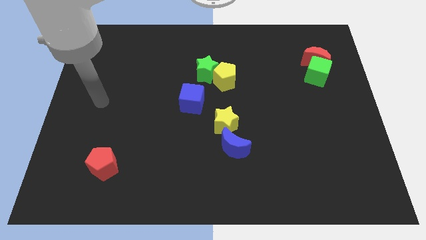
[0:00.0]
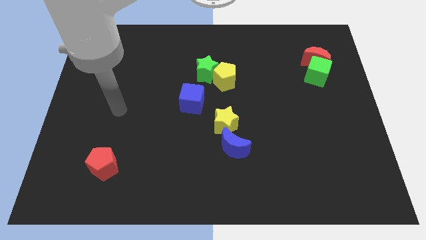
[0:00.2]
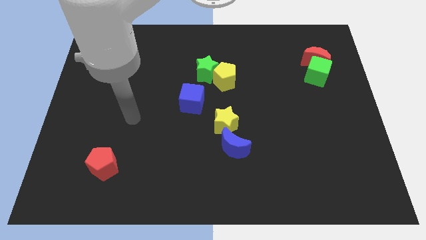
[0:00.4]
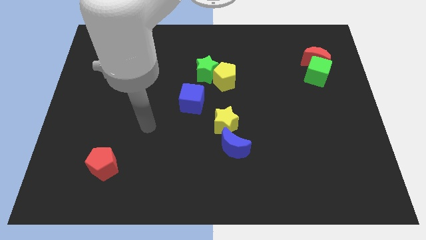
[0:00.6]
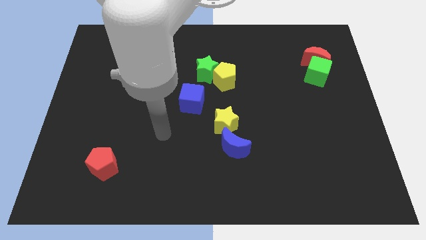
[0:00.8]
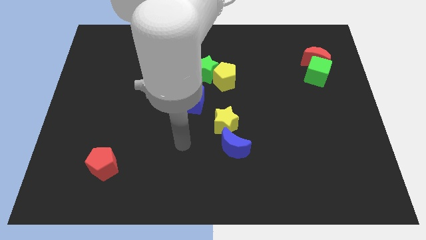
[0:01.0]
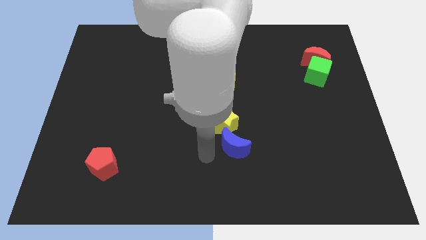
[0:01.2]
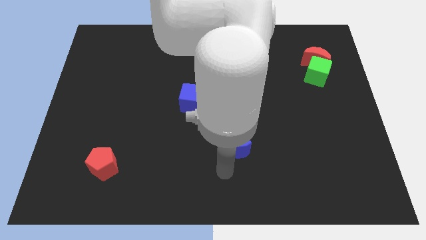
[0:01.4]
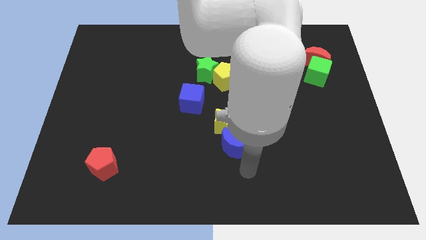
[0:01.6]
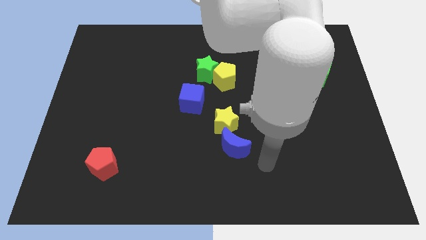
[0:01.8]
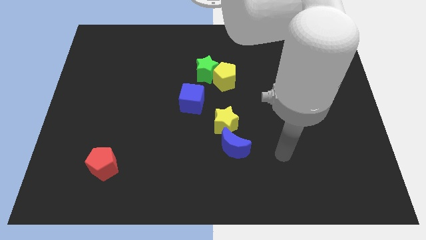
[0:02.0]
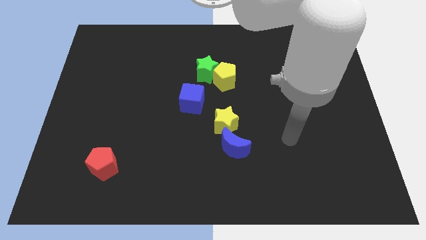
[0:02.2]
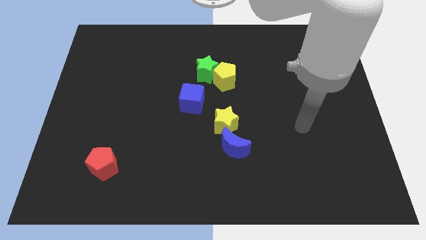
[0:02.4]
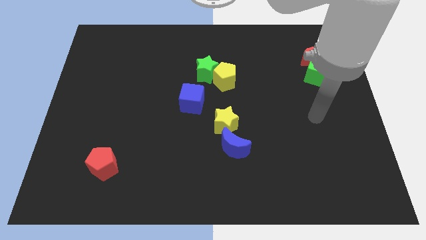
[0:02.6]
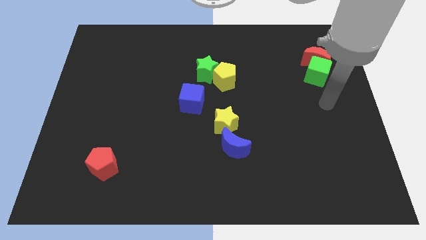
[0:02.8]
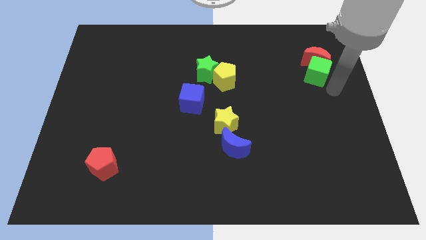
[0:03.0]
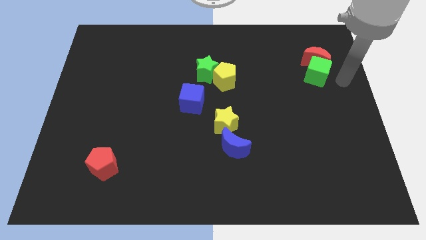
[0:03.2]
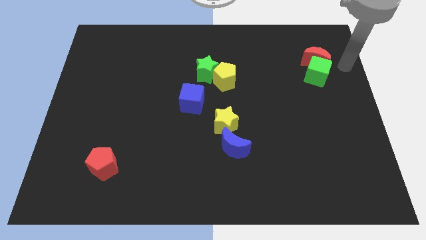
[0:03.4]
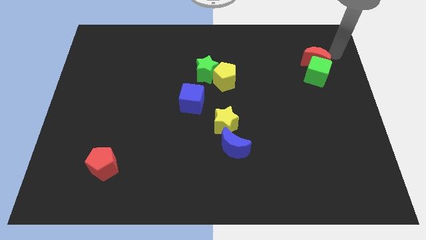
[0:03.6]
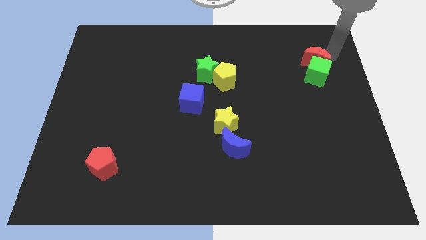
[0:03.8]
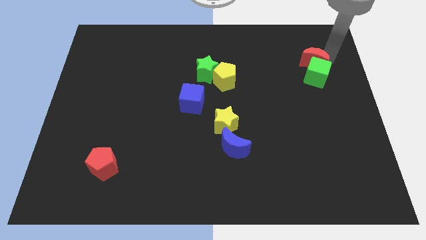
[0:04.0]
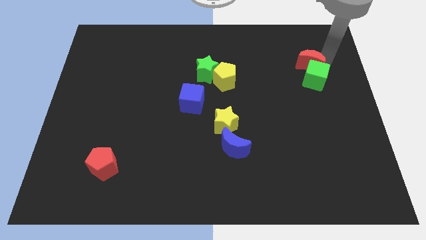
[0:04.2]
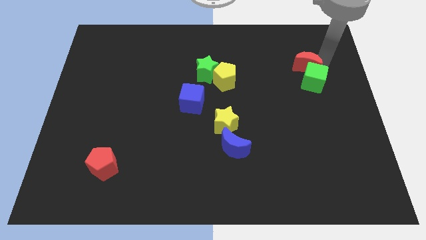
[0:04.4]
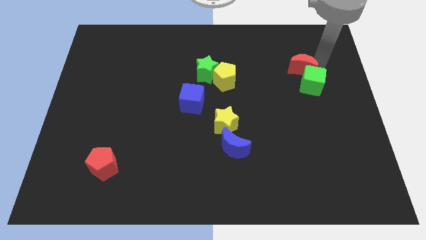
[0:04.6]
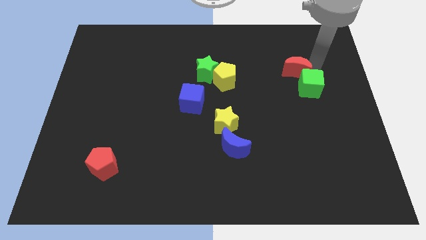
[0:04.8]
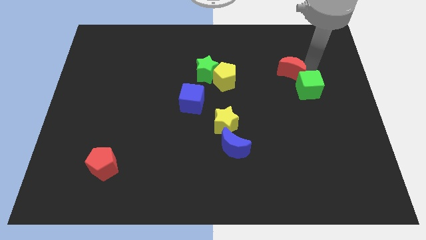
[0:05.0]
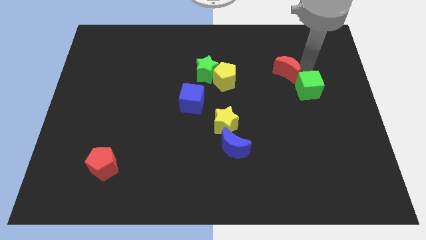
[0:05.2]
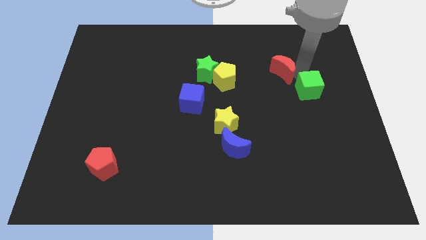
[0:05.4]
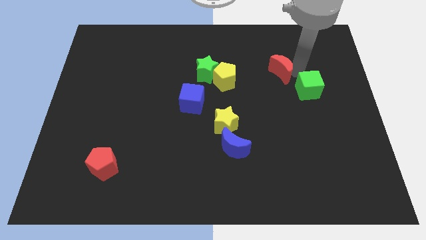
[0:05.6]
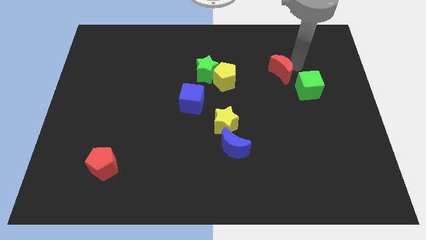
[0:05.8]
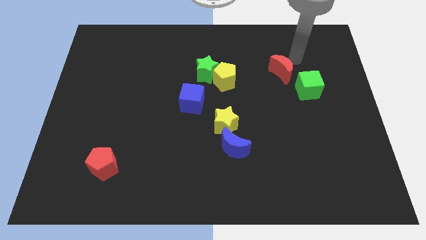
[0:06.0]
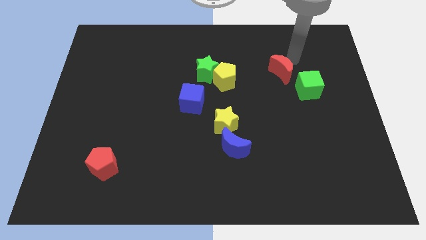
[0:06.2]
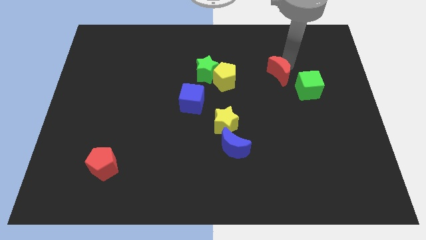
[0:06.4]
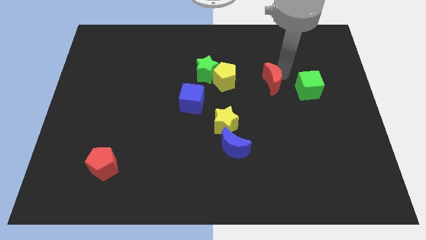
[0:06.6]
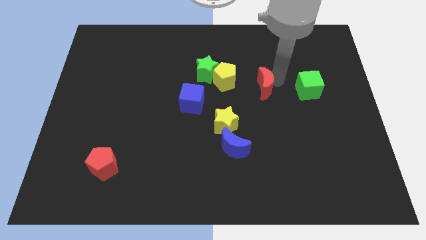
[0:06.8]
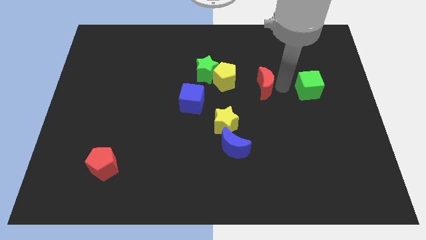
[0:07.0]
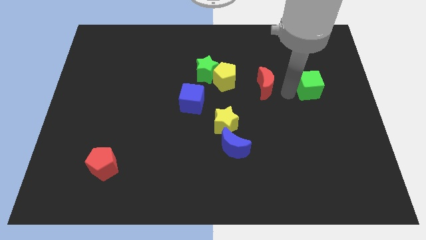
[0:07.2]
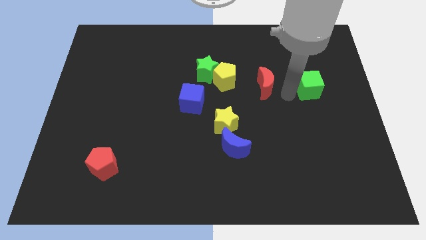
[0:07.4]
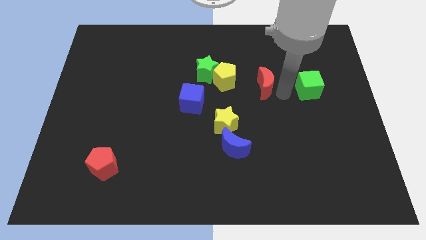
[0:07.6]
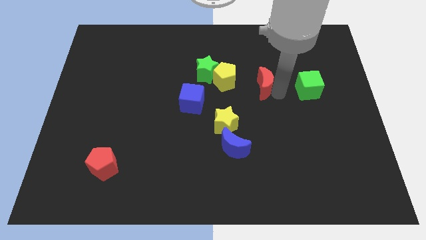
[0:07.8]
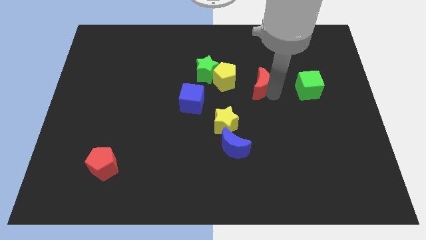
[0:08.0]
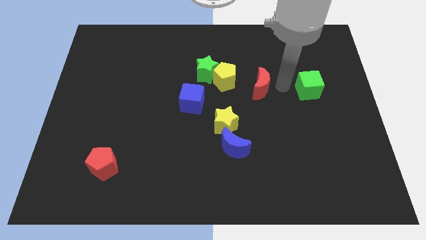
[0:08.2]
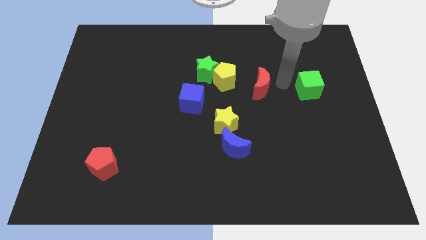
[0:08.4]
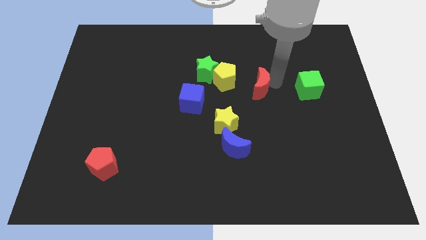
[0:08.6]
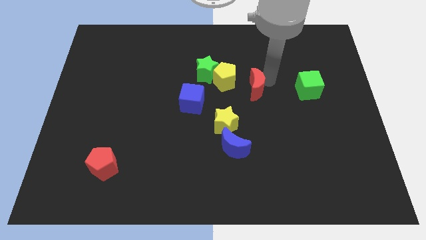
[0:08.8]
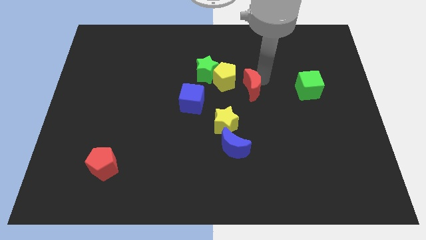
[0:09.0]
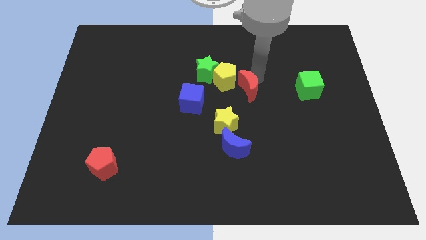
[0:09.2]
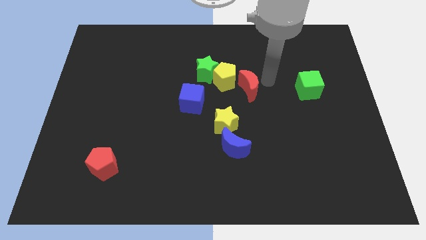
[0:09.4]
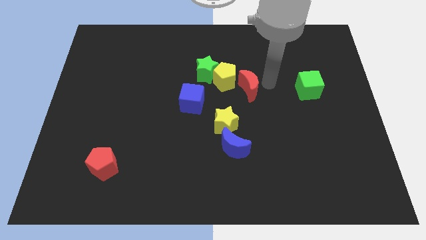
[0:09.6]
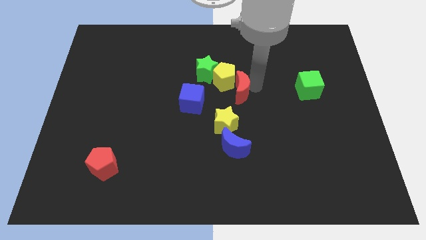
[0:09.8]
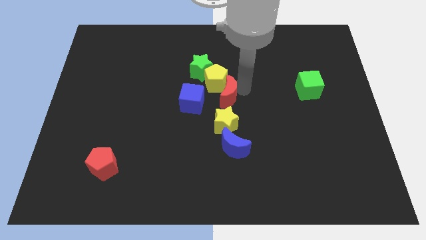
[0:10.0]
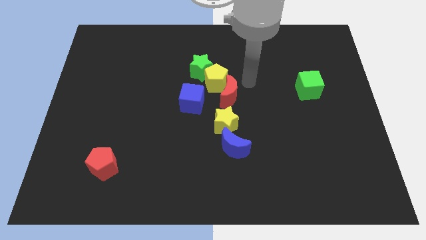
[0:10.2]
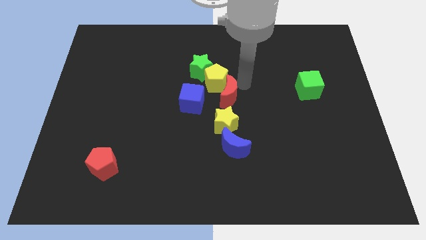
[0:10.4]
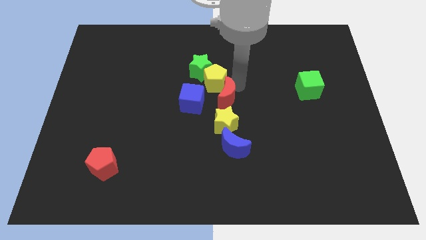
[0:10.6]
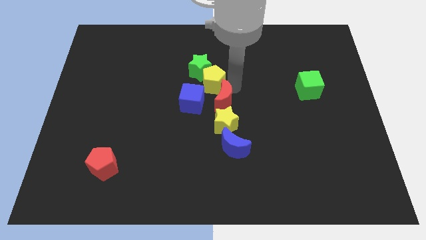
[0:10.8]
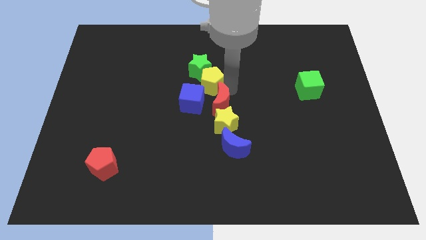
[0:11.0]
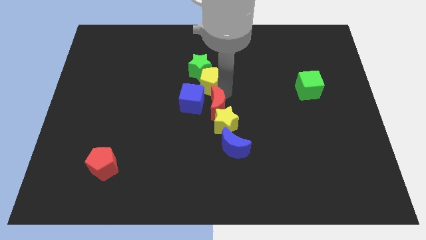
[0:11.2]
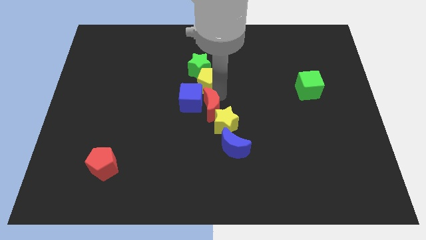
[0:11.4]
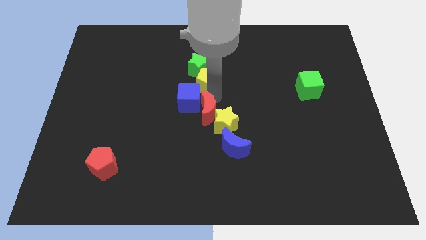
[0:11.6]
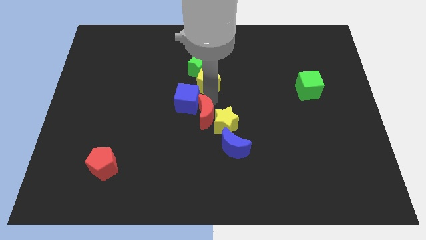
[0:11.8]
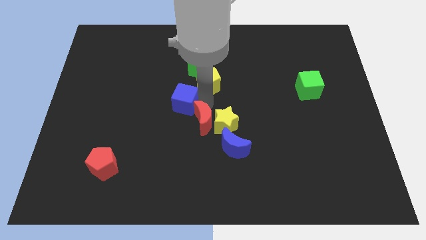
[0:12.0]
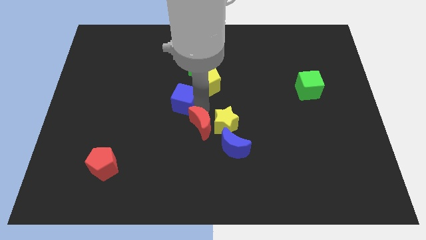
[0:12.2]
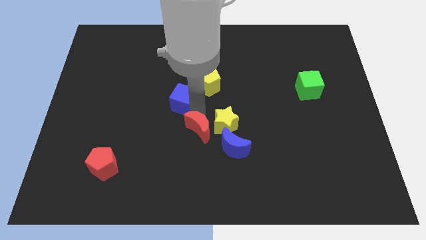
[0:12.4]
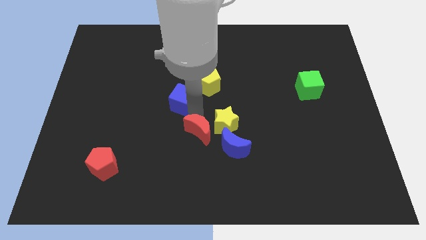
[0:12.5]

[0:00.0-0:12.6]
put the red moon to the left side of the blue moon
